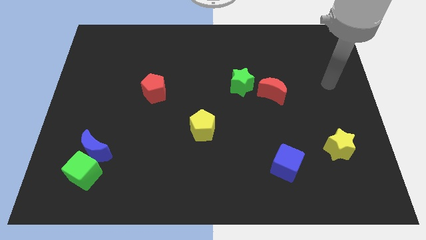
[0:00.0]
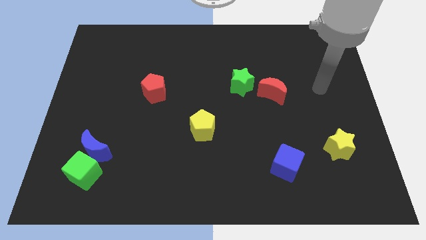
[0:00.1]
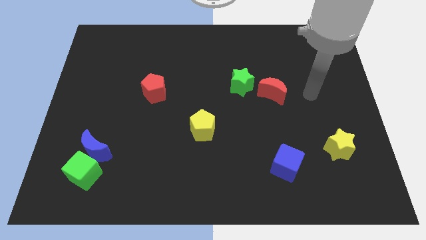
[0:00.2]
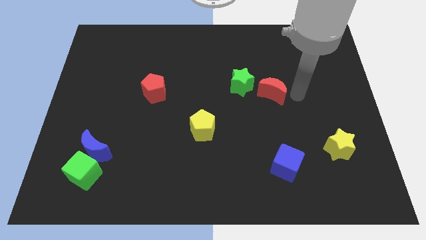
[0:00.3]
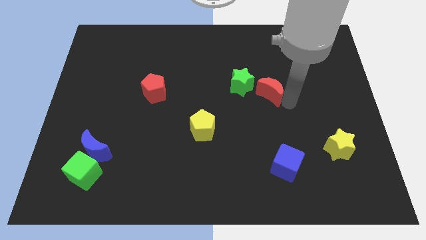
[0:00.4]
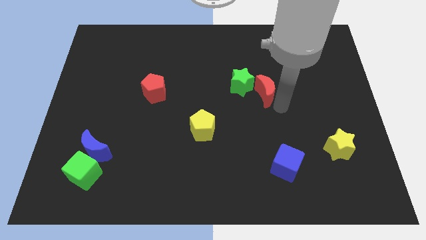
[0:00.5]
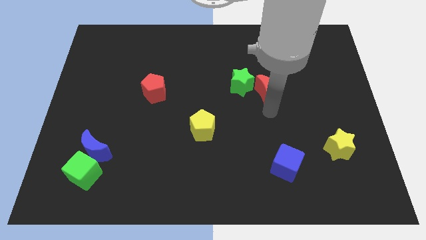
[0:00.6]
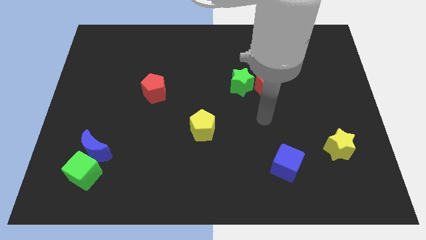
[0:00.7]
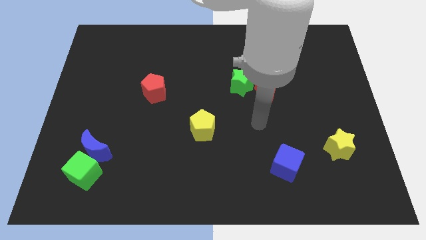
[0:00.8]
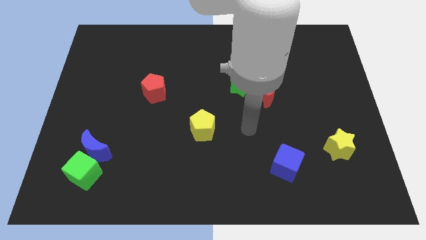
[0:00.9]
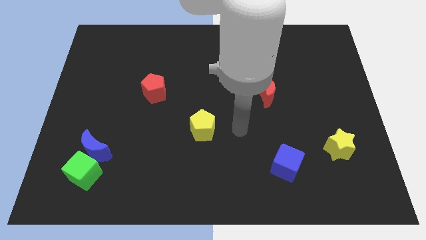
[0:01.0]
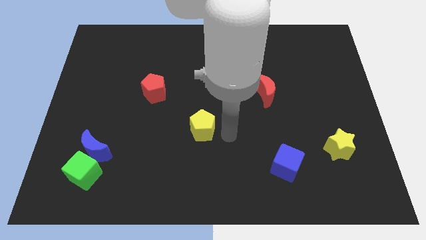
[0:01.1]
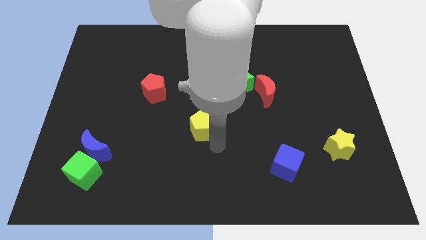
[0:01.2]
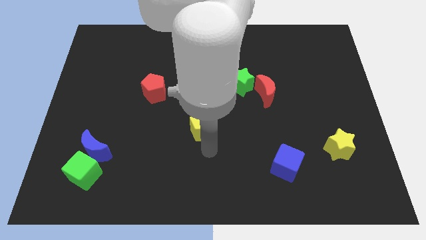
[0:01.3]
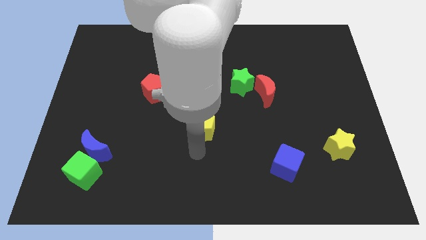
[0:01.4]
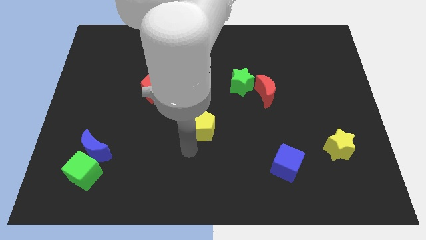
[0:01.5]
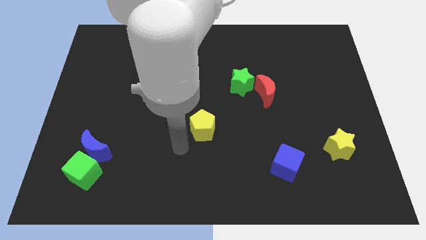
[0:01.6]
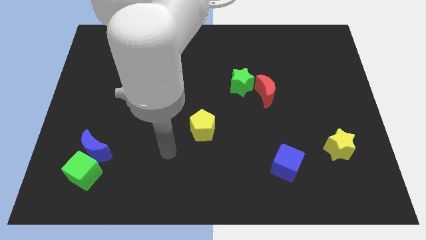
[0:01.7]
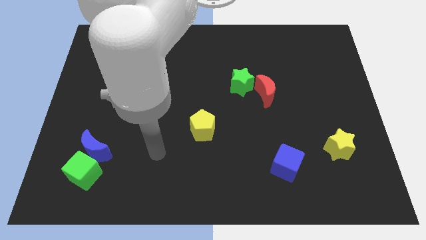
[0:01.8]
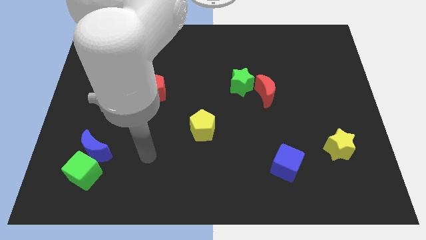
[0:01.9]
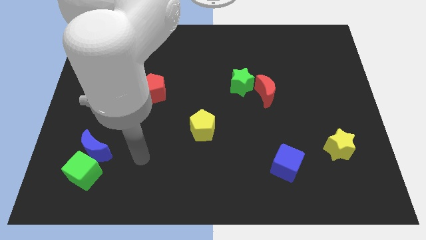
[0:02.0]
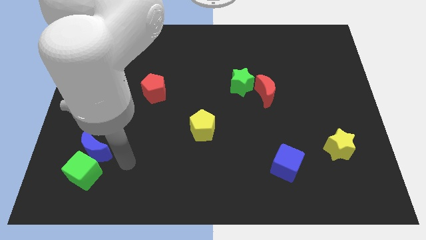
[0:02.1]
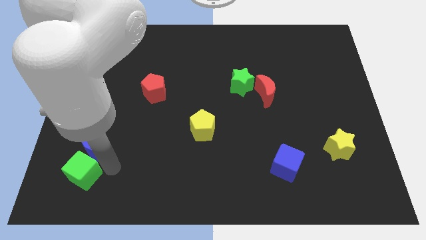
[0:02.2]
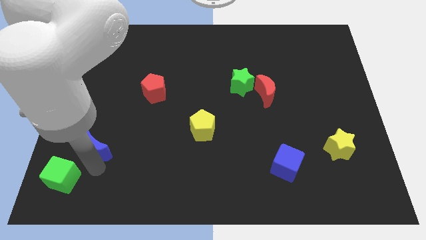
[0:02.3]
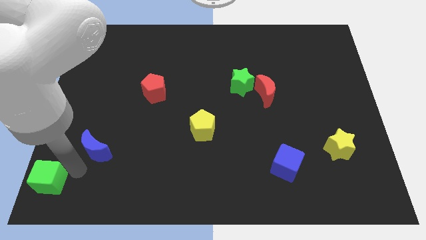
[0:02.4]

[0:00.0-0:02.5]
separate the blue moon from the green cube

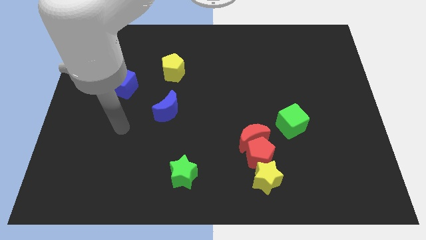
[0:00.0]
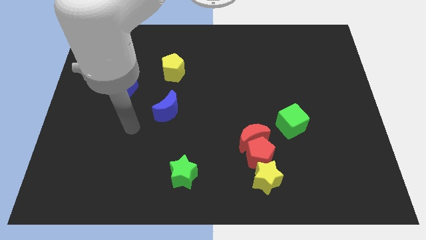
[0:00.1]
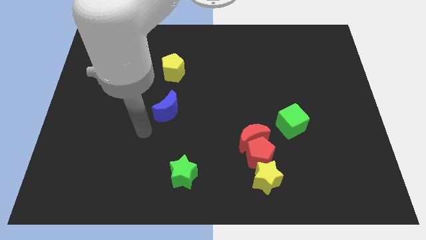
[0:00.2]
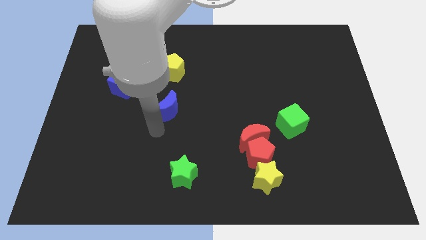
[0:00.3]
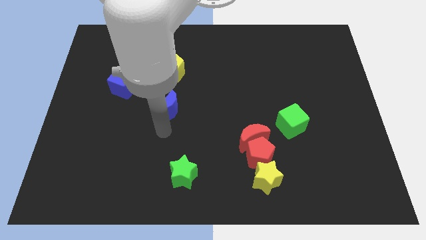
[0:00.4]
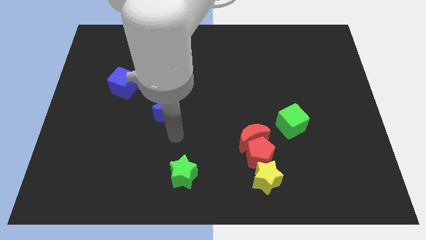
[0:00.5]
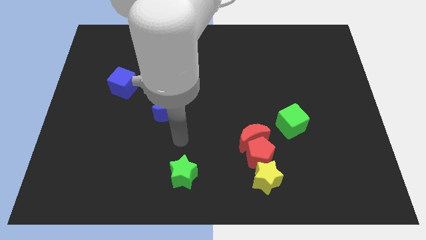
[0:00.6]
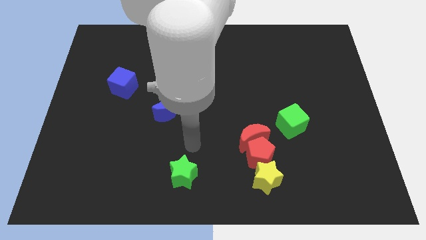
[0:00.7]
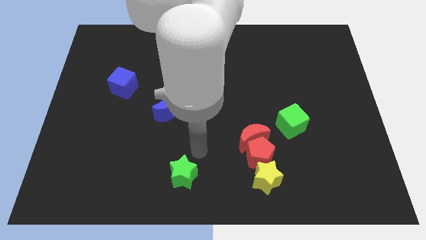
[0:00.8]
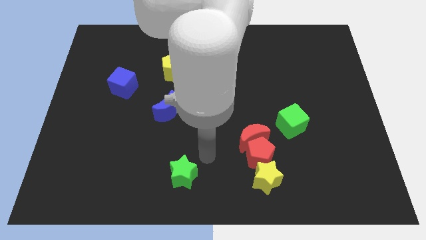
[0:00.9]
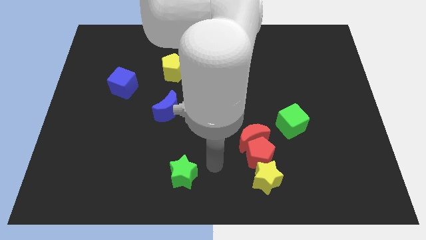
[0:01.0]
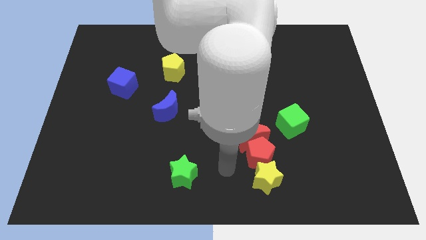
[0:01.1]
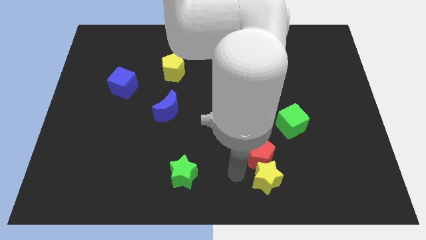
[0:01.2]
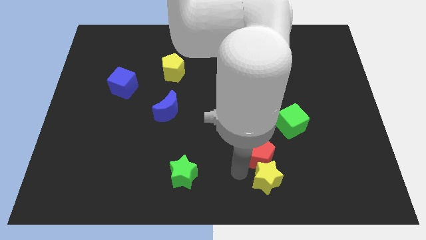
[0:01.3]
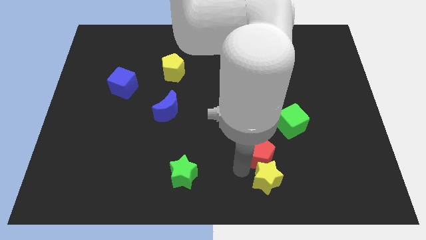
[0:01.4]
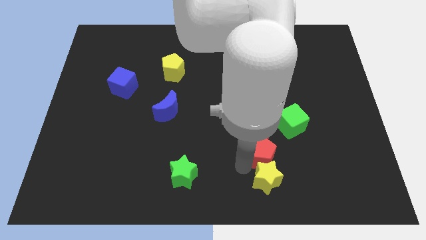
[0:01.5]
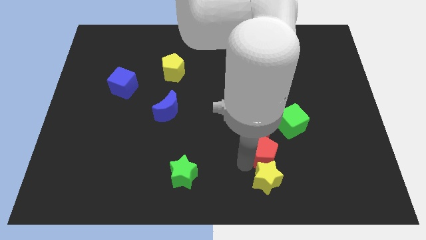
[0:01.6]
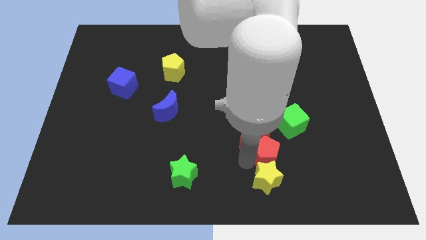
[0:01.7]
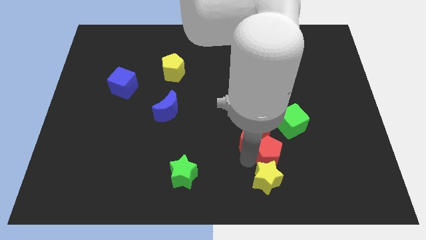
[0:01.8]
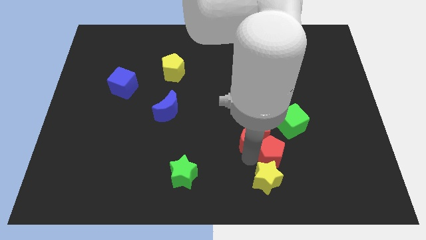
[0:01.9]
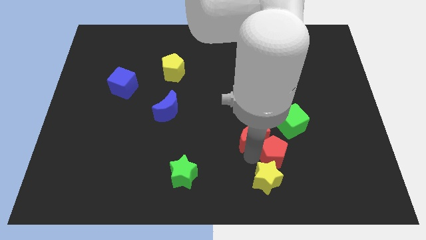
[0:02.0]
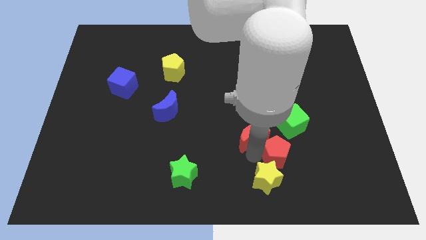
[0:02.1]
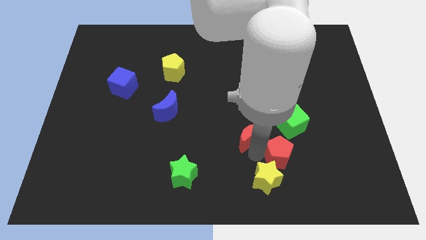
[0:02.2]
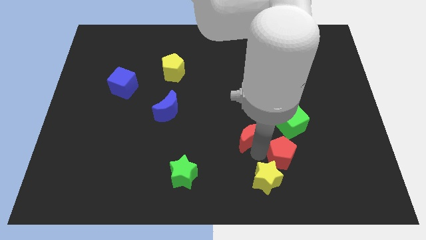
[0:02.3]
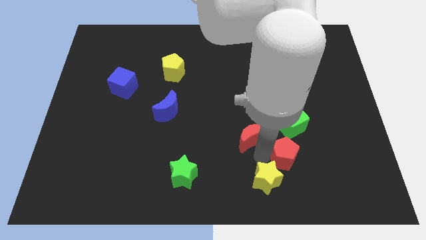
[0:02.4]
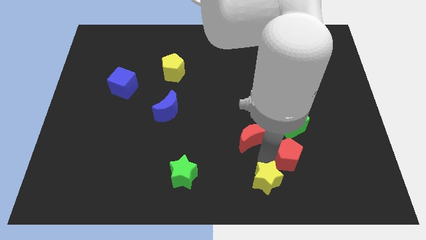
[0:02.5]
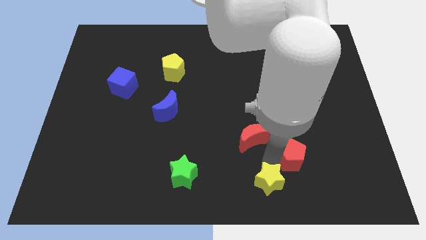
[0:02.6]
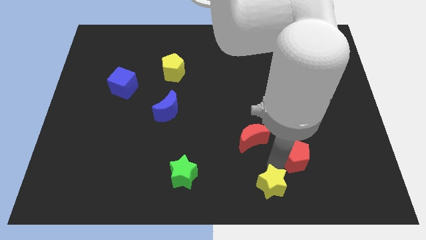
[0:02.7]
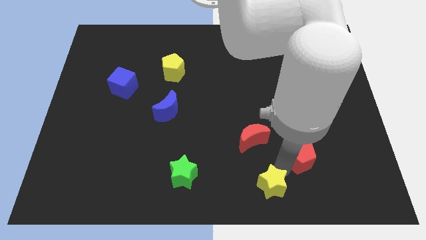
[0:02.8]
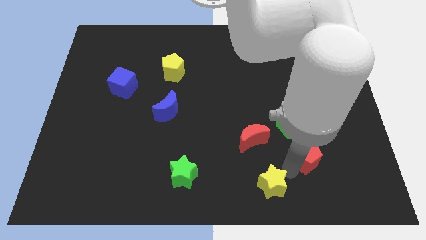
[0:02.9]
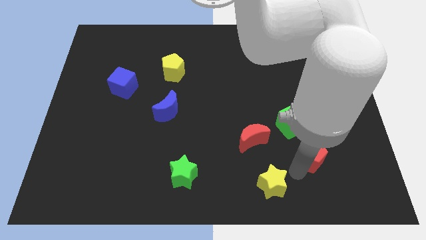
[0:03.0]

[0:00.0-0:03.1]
pull the red pentagon apart from the red moon and yellow star

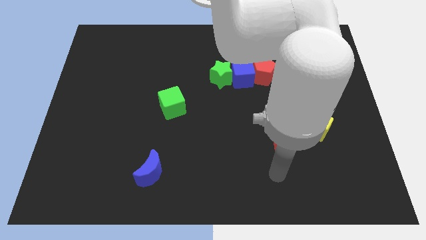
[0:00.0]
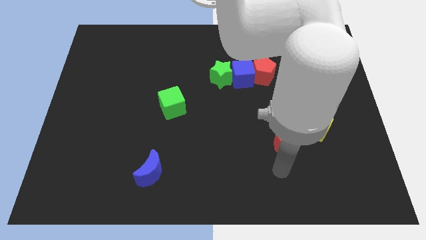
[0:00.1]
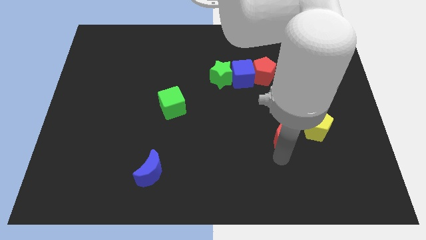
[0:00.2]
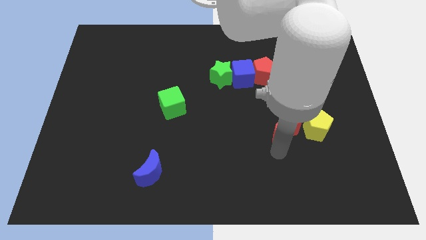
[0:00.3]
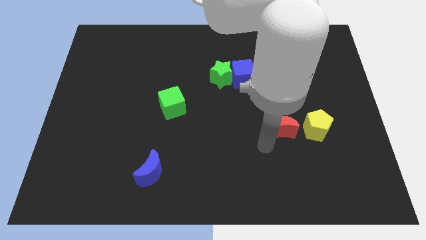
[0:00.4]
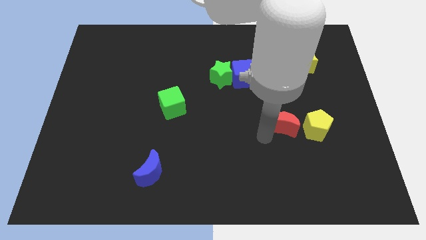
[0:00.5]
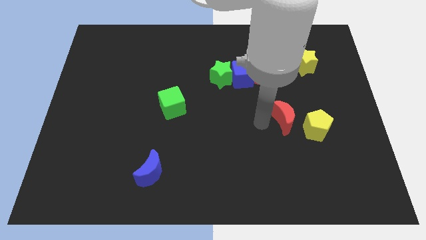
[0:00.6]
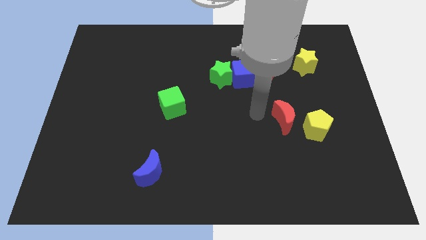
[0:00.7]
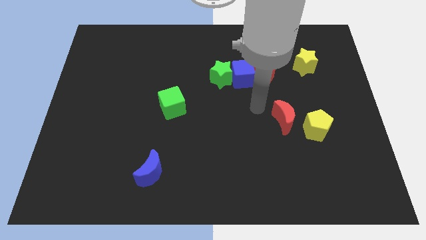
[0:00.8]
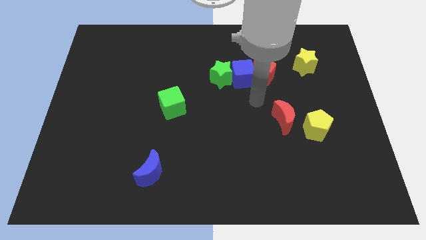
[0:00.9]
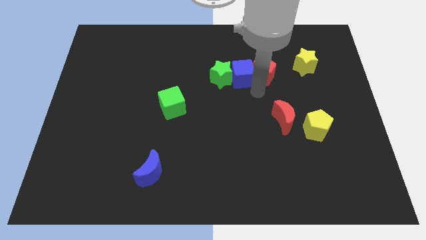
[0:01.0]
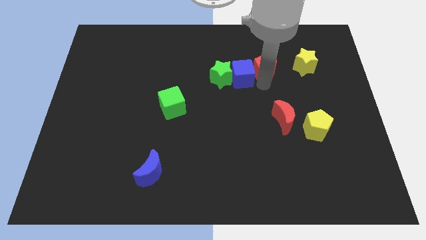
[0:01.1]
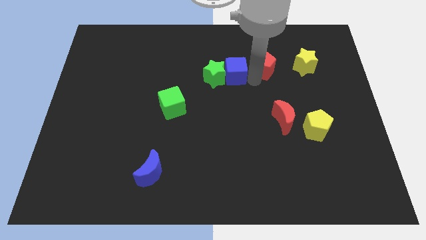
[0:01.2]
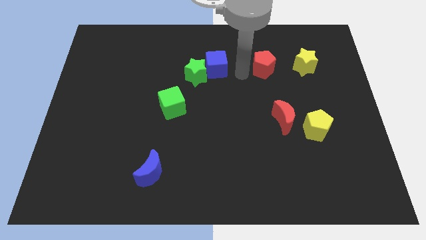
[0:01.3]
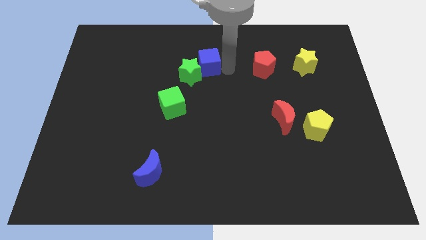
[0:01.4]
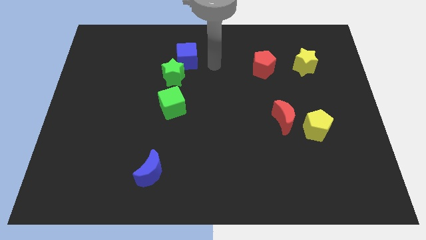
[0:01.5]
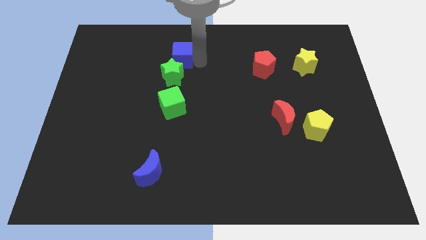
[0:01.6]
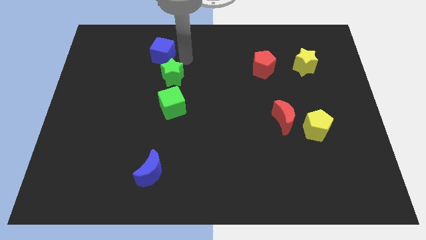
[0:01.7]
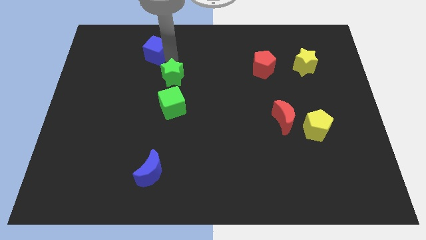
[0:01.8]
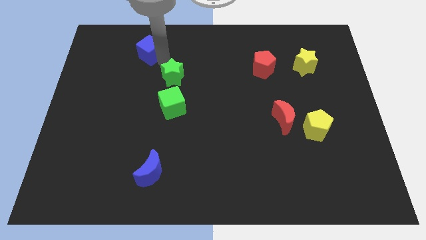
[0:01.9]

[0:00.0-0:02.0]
move the green star away from the blue cube

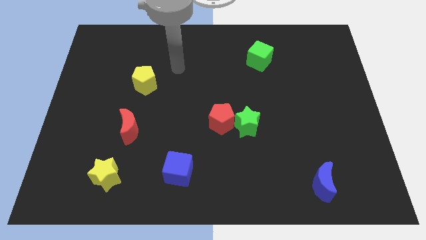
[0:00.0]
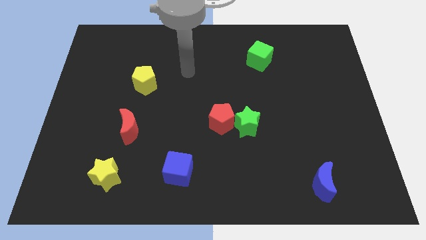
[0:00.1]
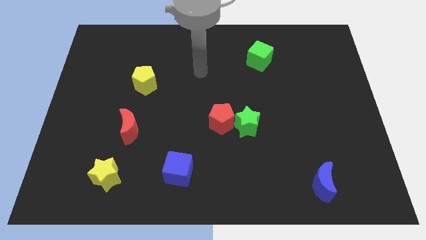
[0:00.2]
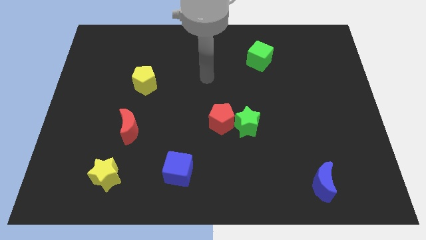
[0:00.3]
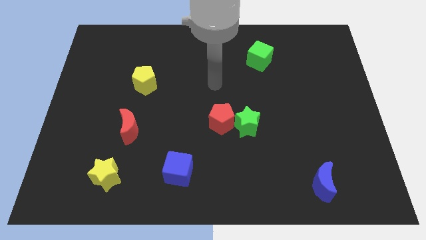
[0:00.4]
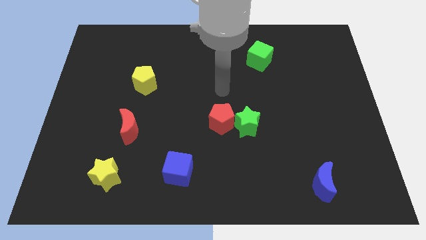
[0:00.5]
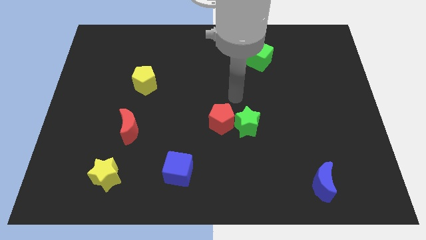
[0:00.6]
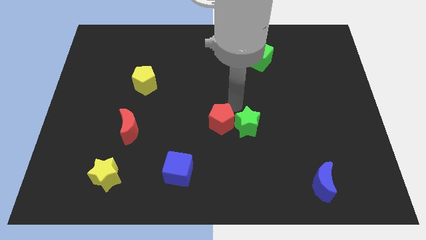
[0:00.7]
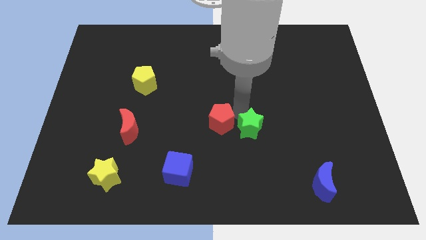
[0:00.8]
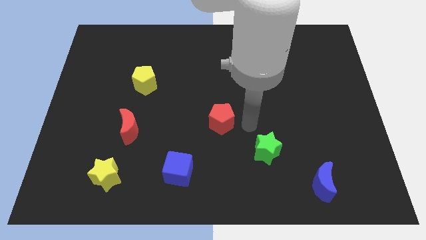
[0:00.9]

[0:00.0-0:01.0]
pull the red pentagon apart from the green star

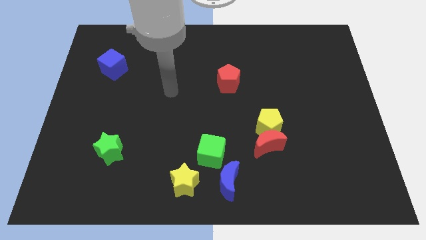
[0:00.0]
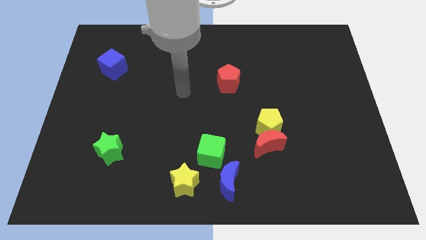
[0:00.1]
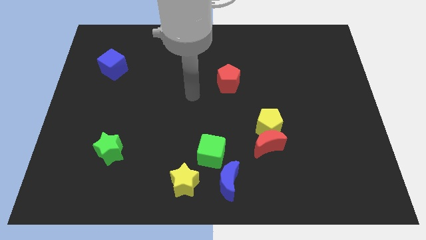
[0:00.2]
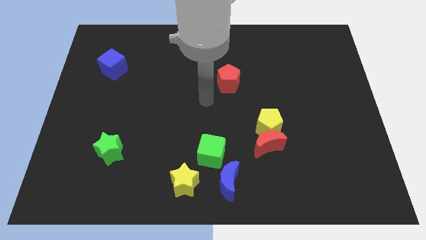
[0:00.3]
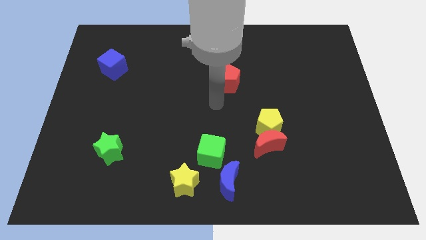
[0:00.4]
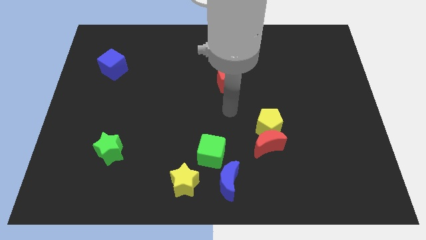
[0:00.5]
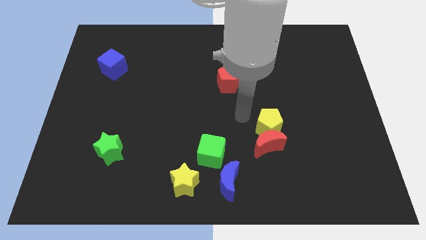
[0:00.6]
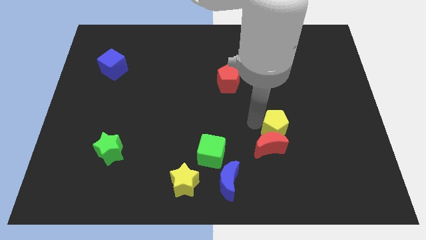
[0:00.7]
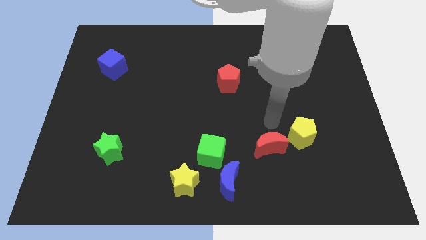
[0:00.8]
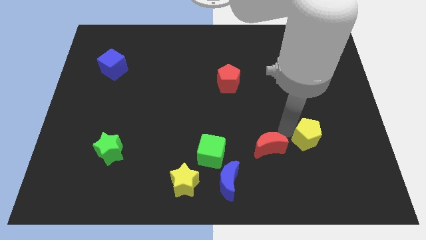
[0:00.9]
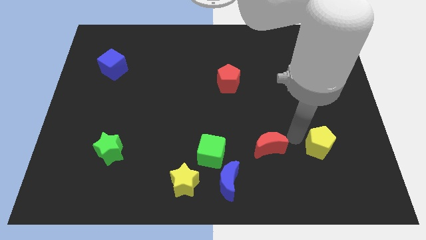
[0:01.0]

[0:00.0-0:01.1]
move the red moon away from the yellow pentagon
